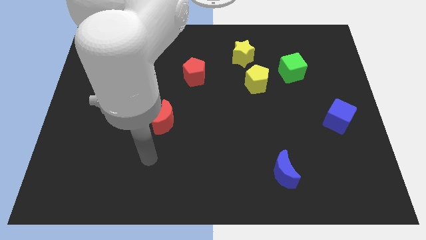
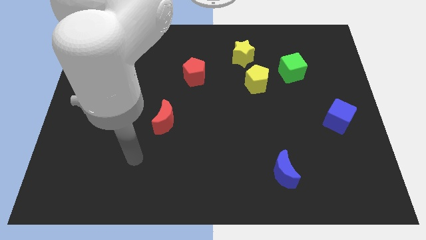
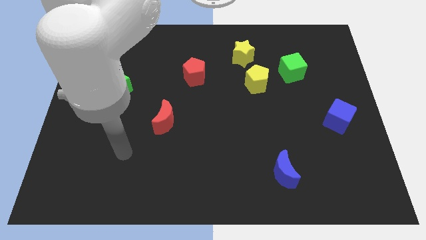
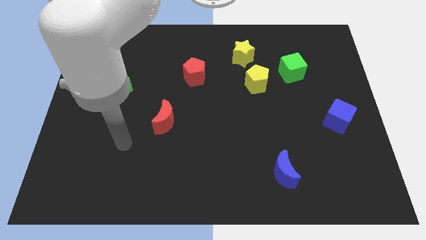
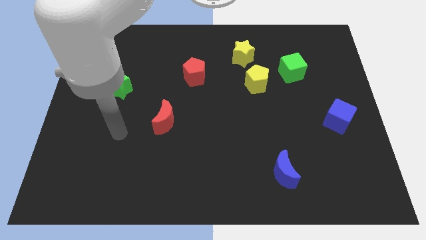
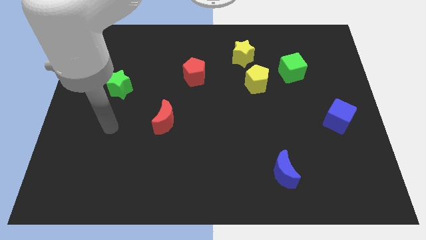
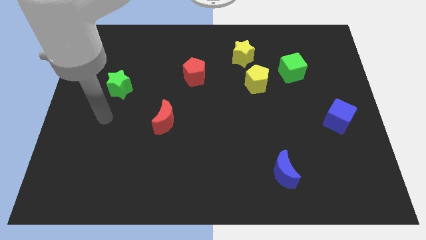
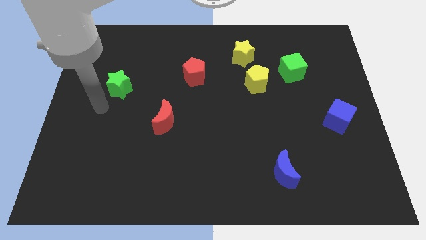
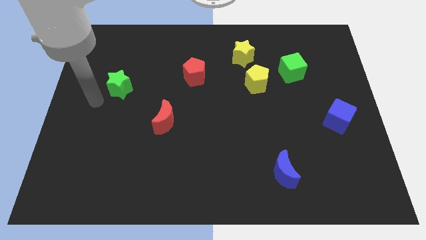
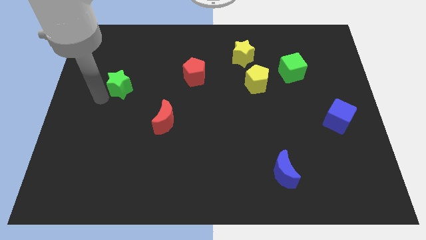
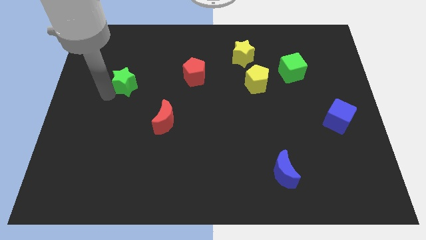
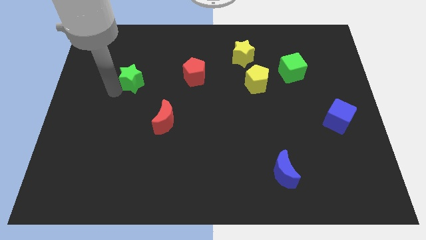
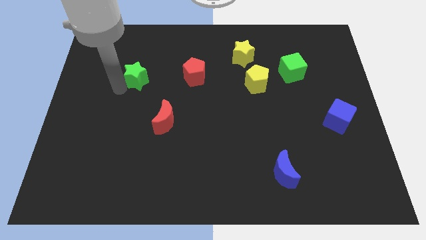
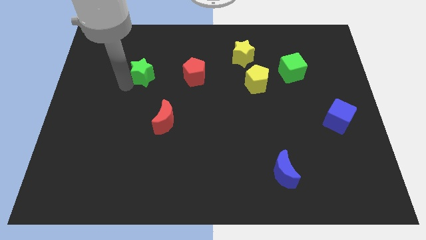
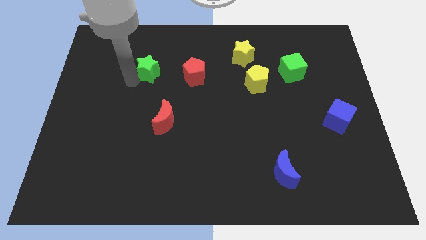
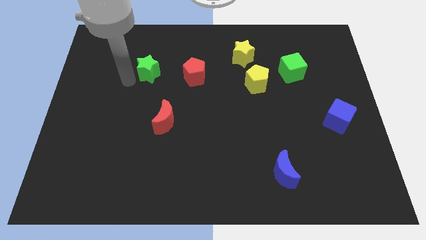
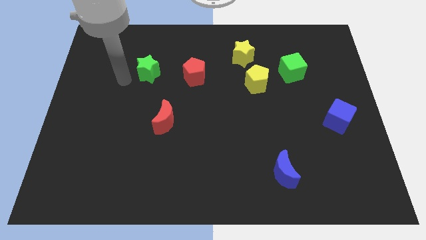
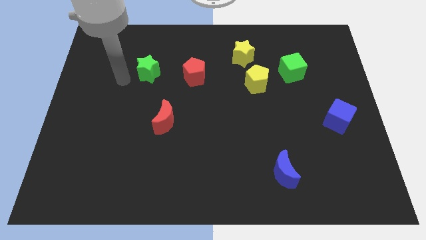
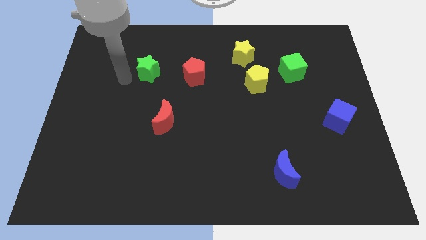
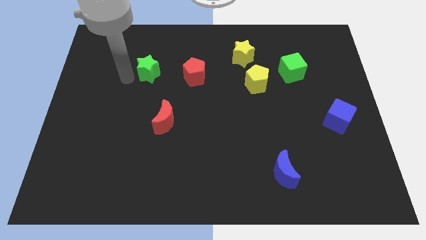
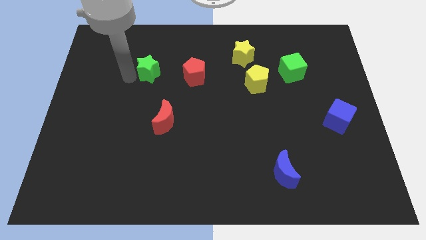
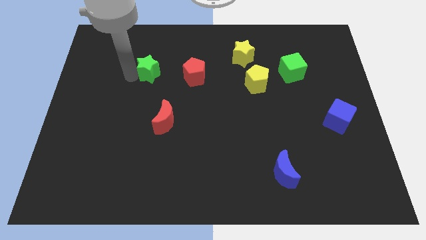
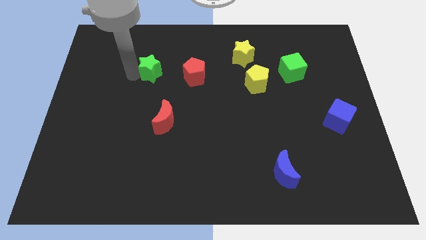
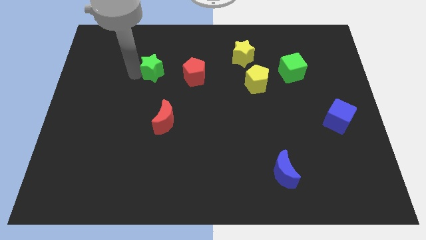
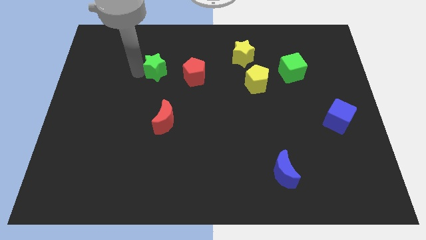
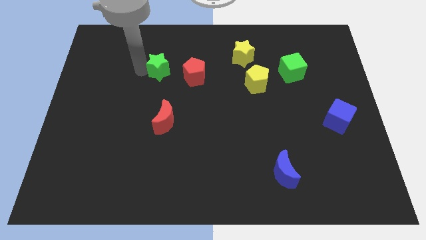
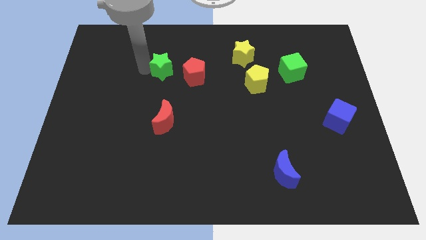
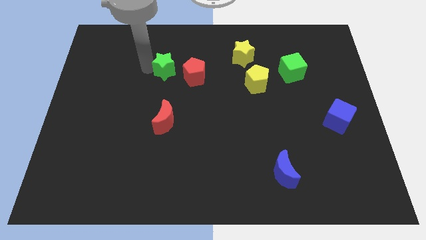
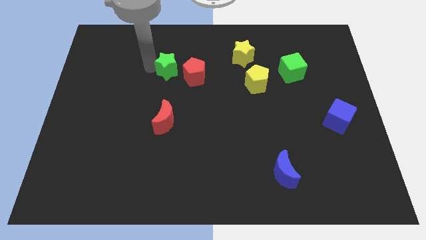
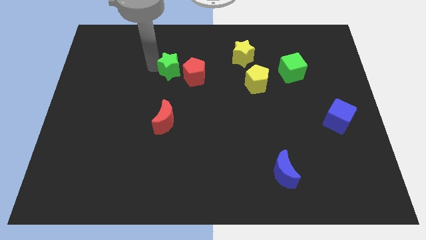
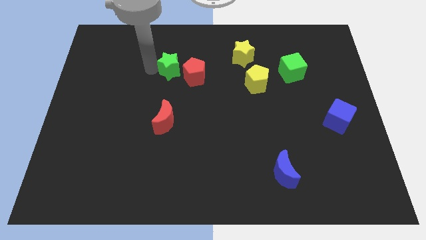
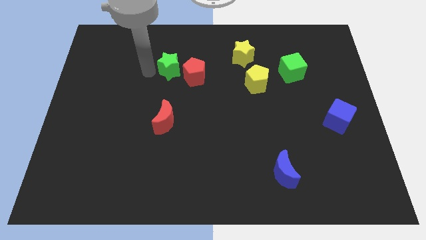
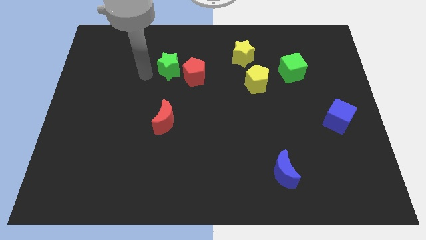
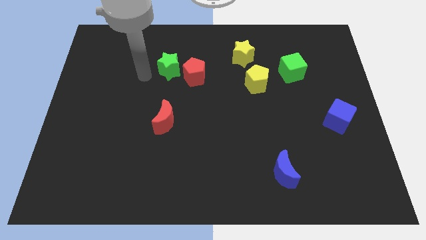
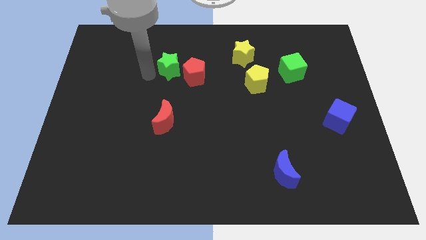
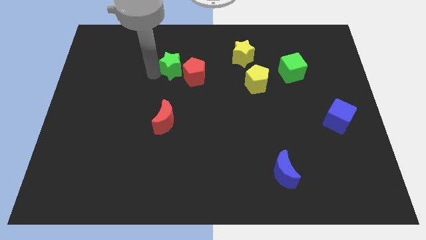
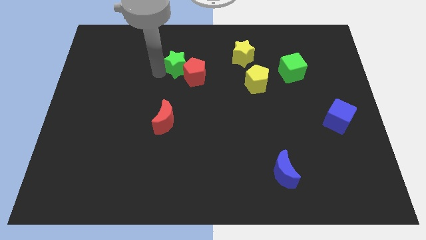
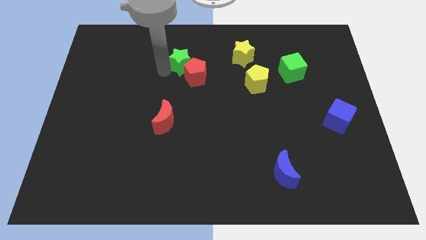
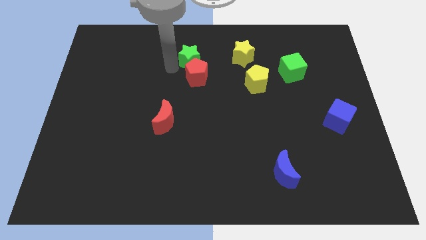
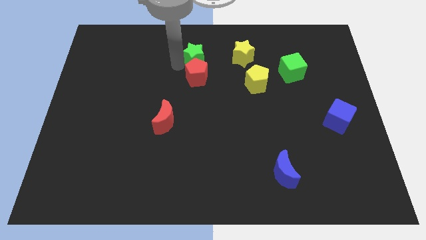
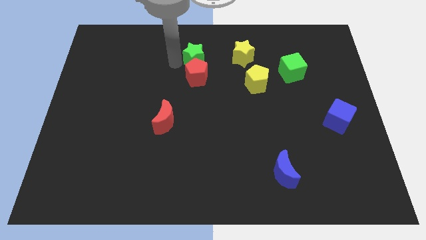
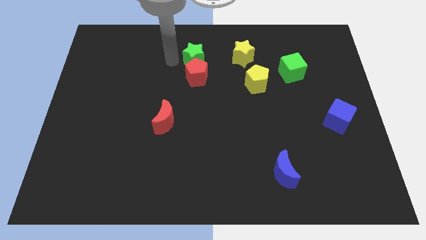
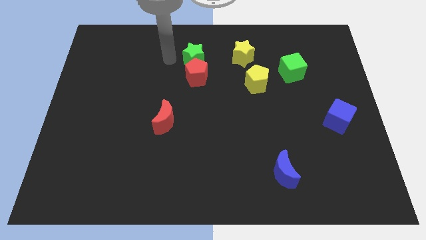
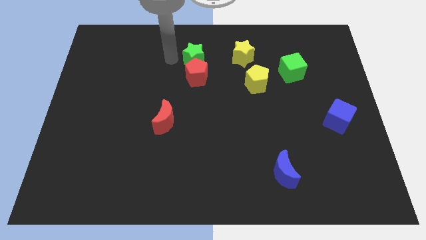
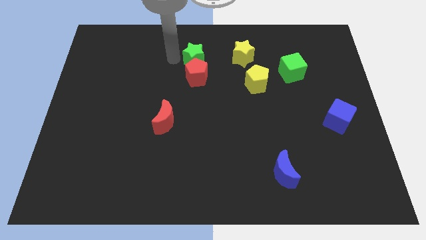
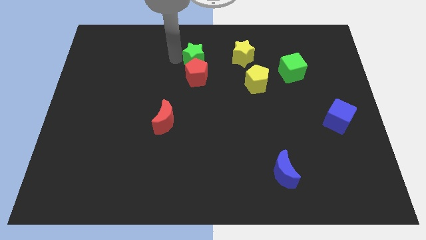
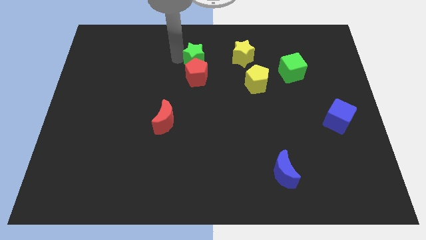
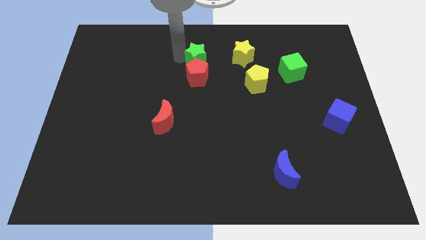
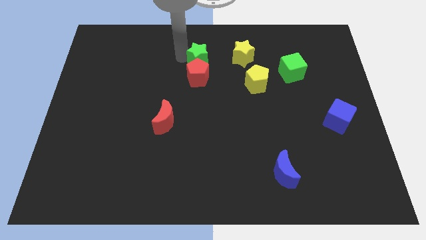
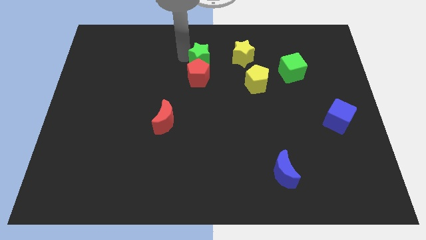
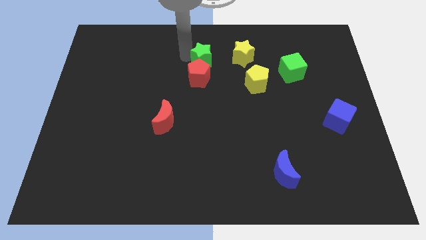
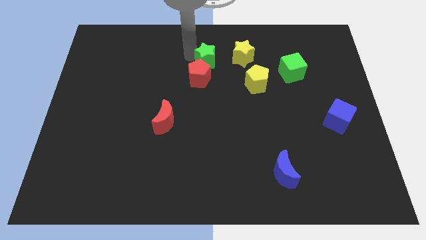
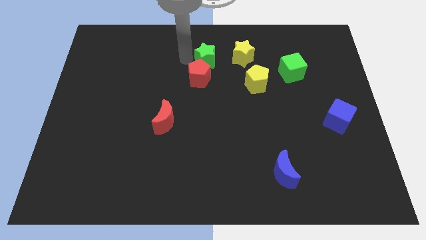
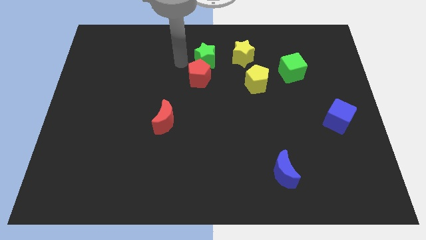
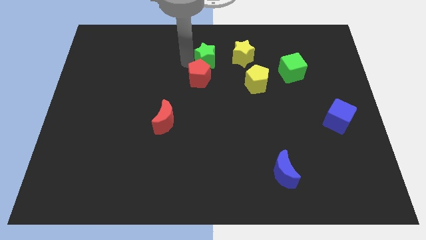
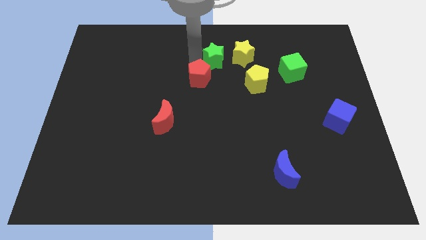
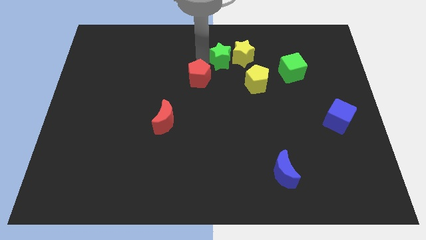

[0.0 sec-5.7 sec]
put the green star close to the yellow star

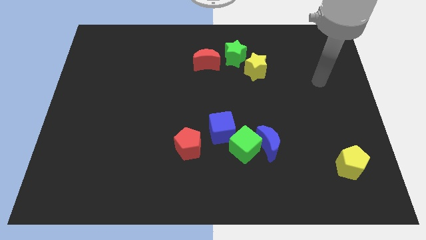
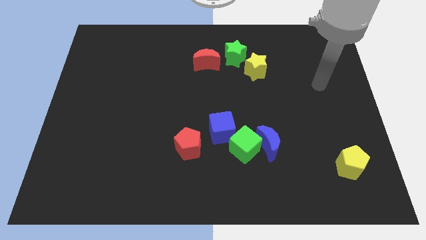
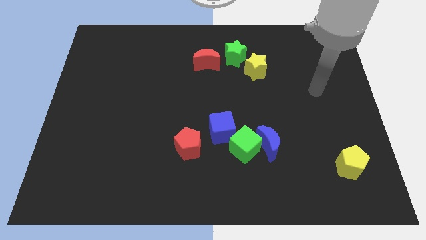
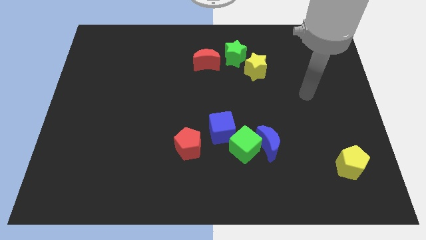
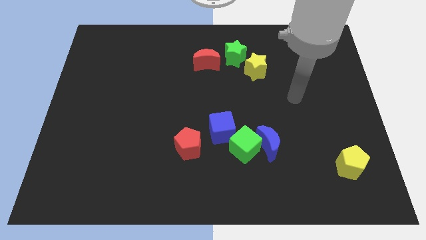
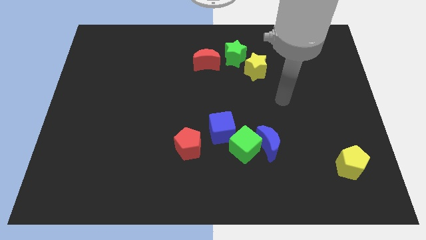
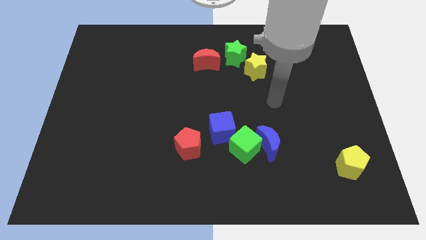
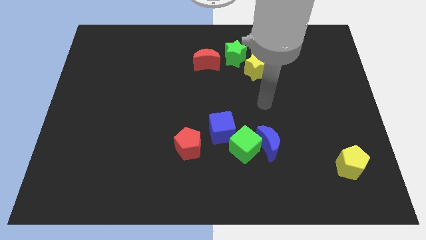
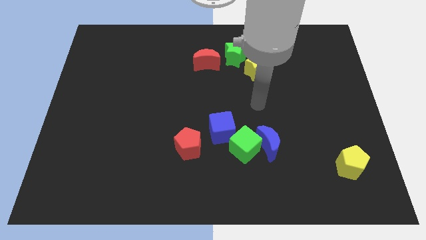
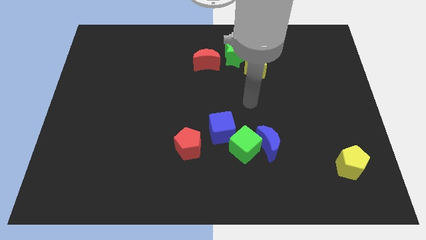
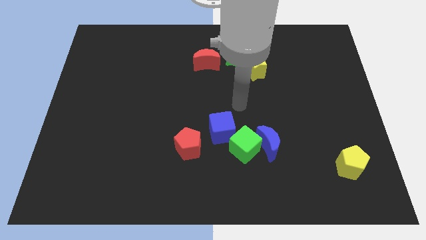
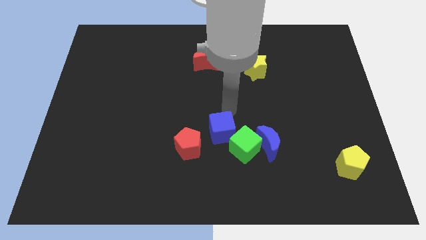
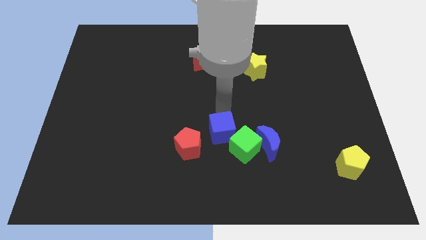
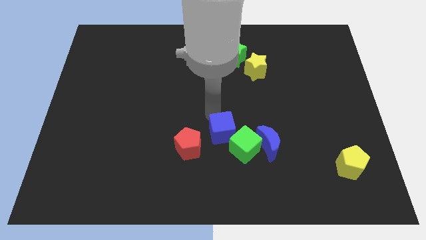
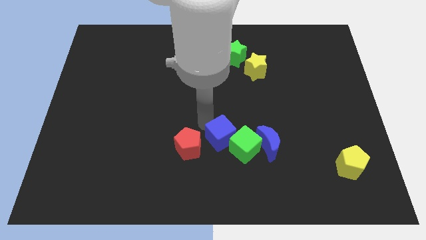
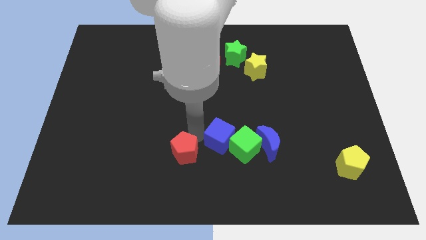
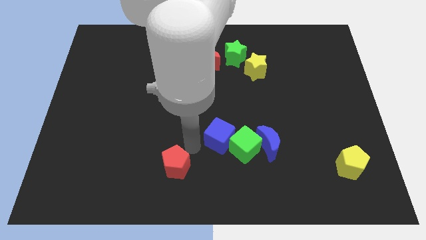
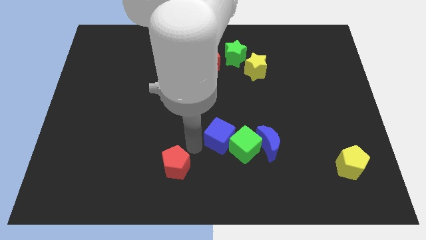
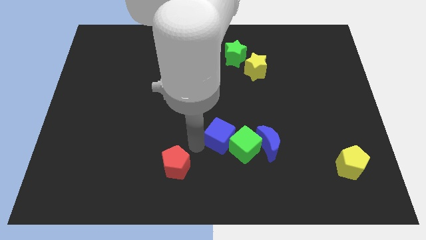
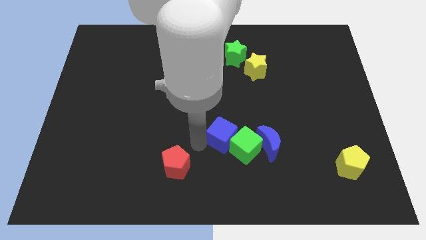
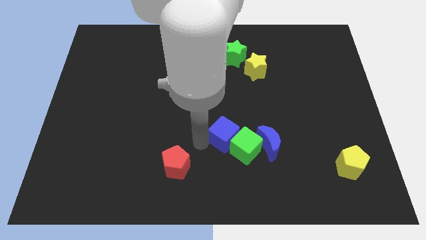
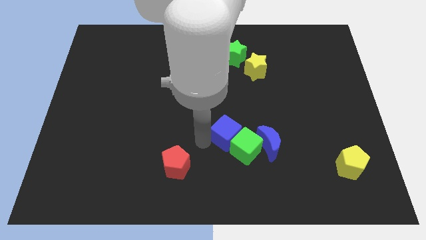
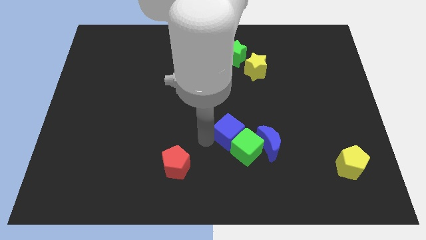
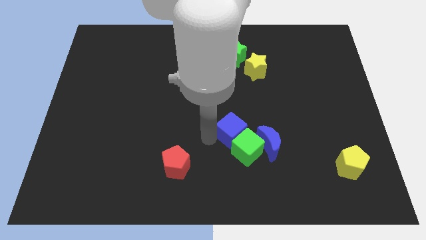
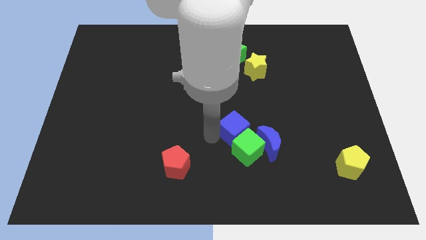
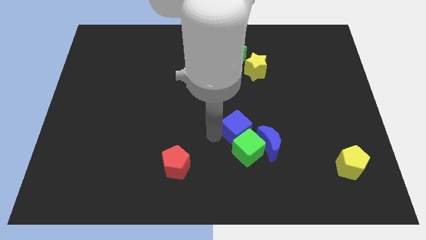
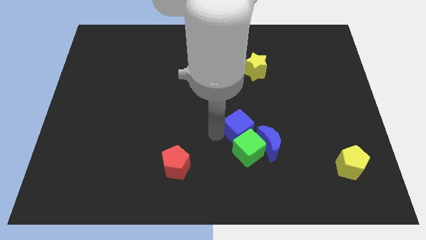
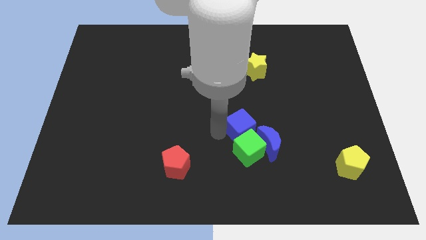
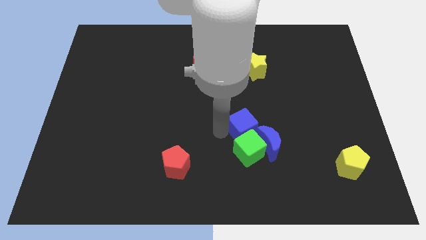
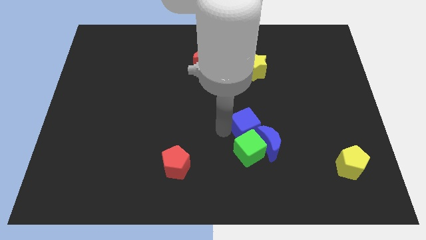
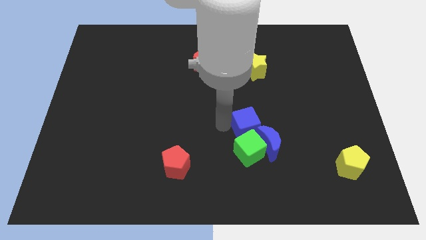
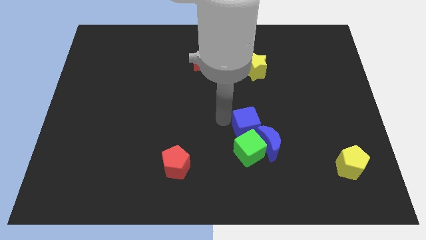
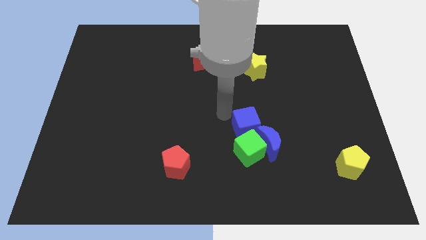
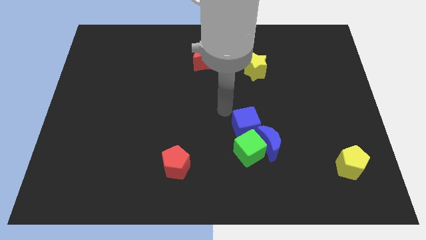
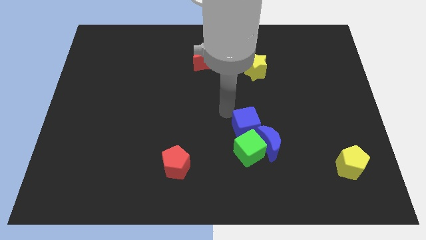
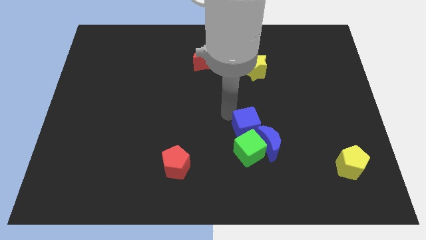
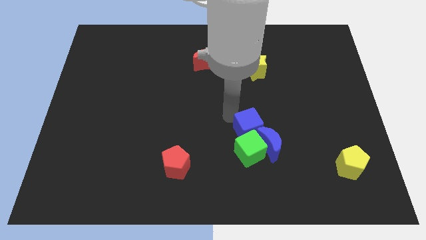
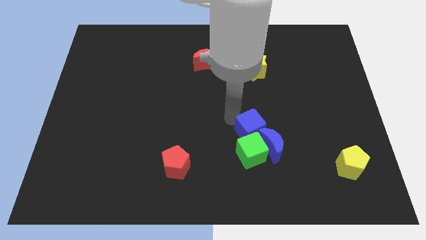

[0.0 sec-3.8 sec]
push the blue cube towards the blue moon
